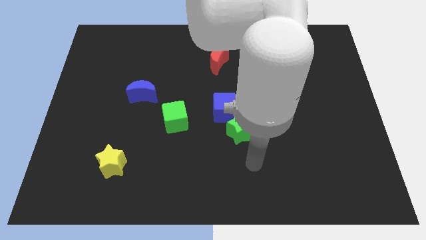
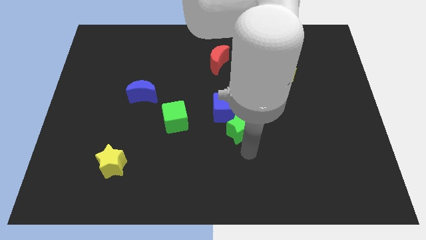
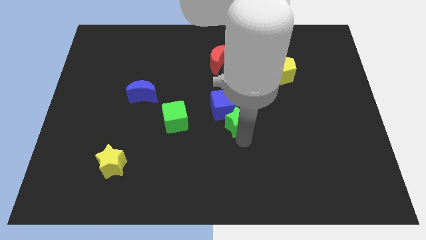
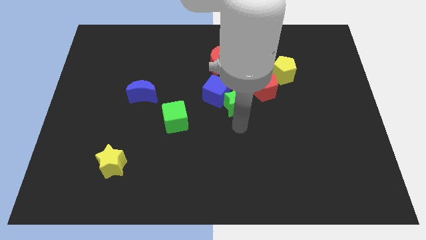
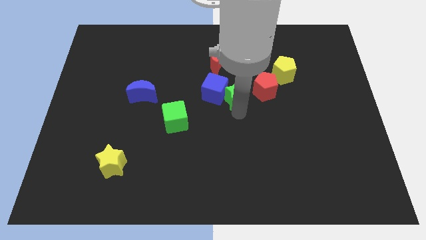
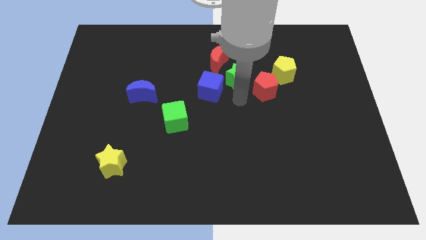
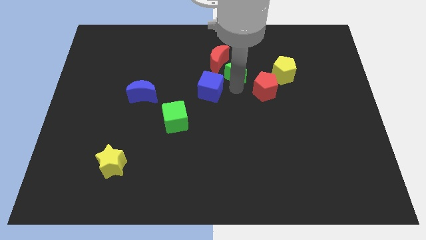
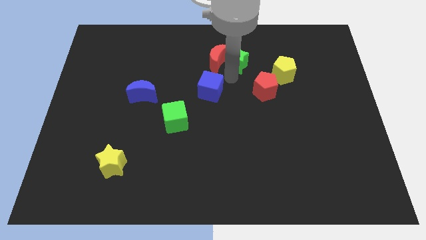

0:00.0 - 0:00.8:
move the blue cube away from the green star

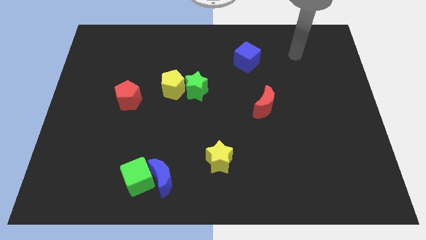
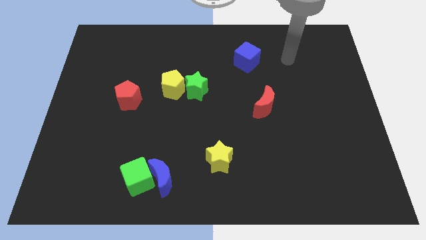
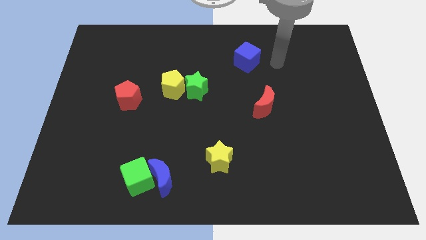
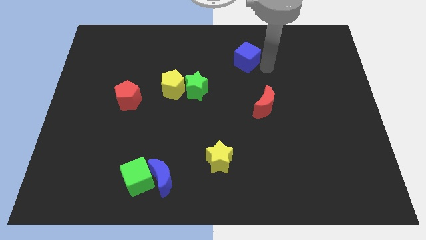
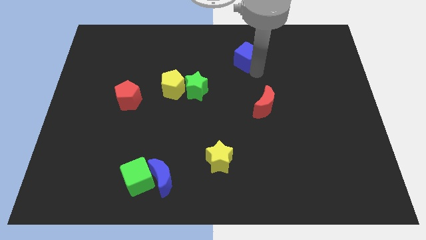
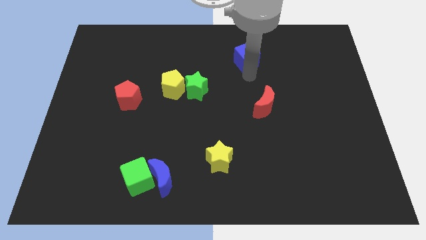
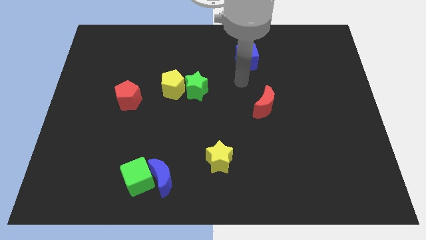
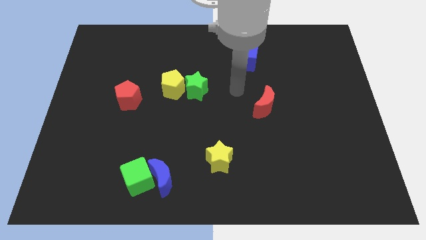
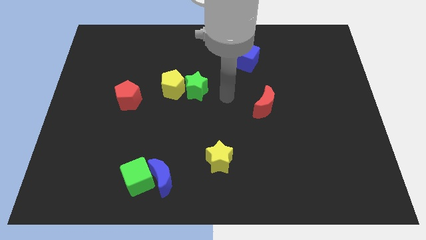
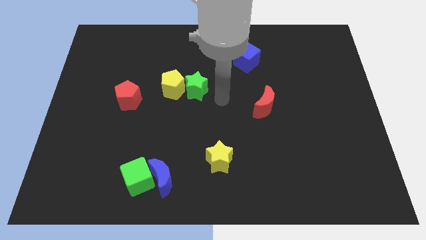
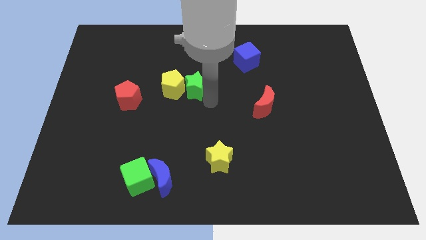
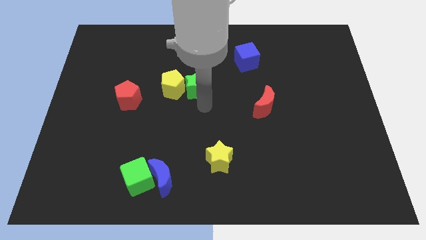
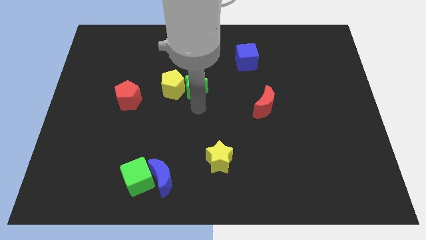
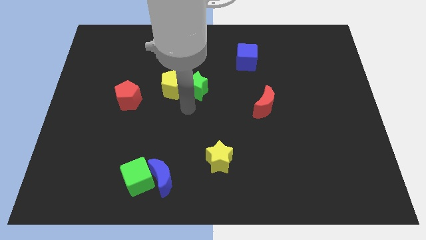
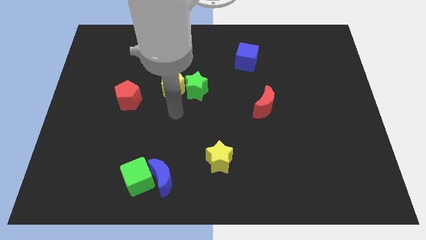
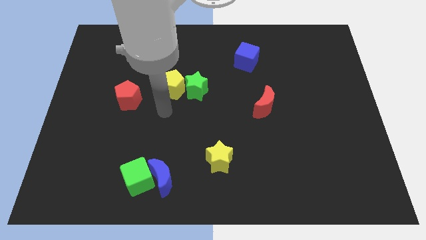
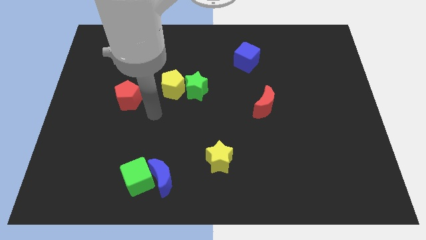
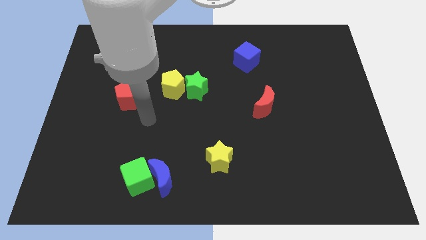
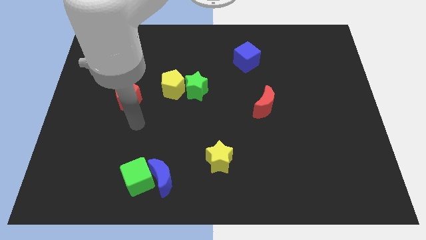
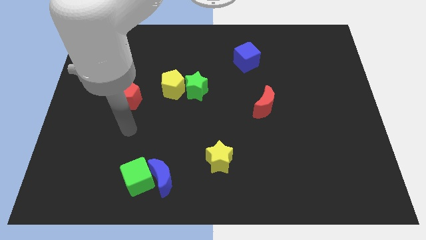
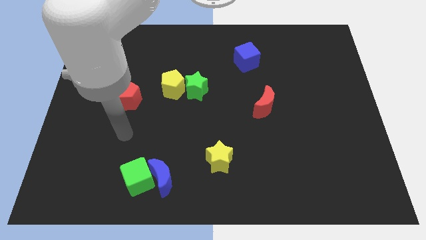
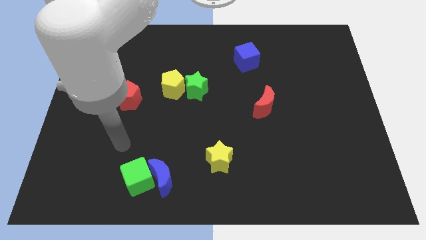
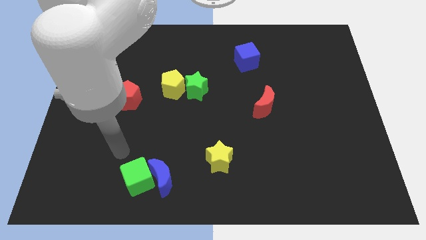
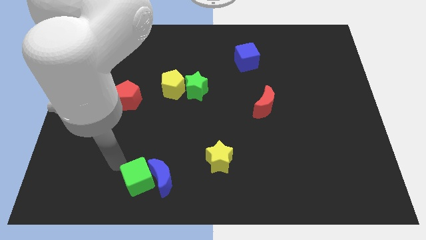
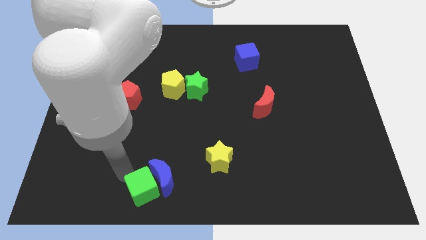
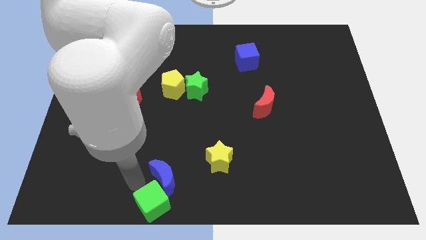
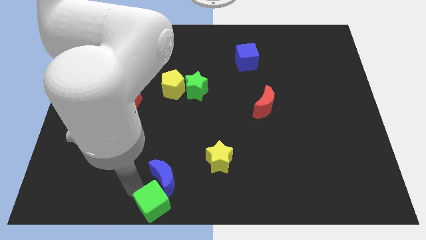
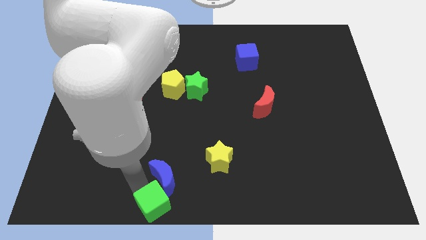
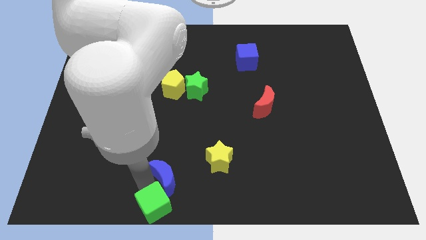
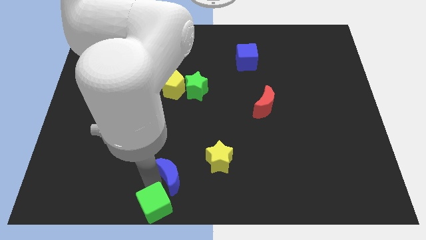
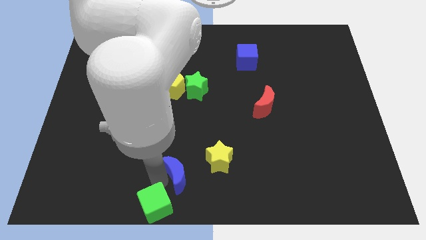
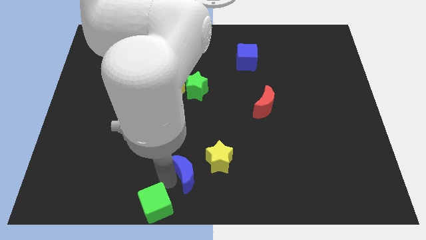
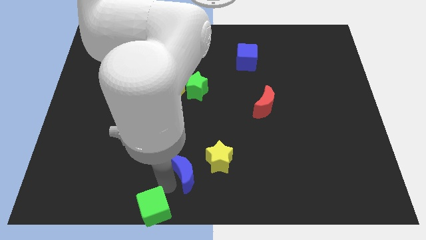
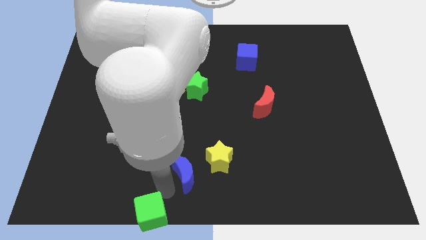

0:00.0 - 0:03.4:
move the blue moon away from the green cube

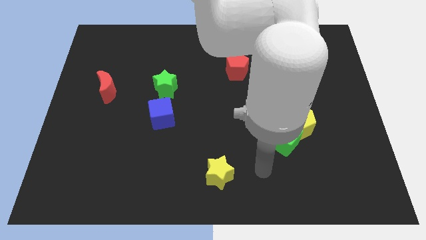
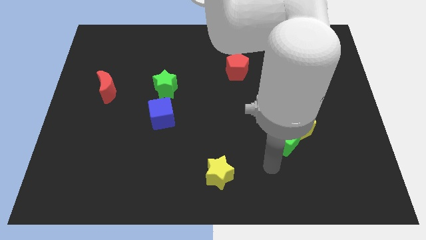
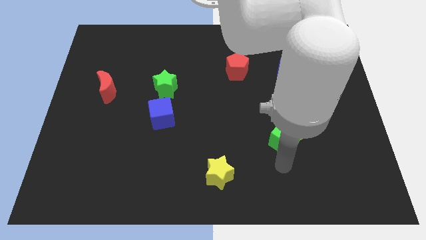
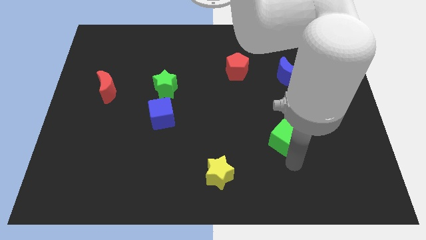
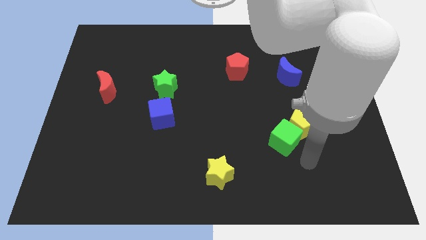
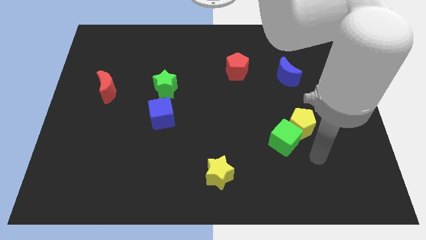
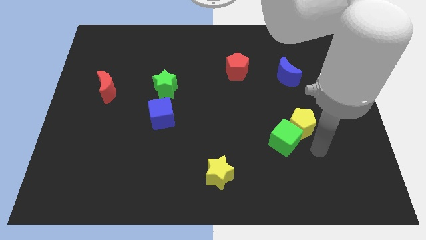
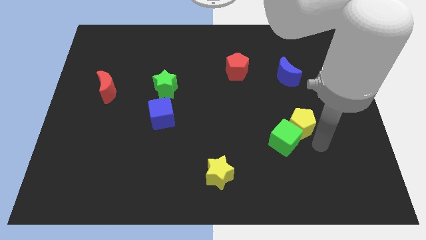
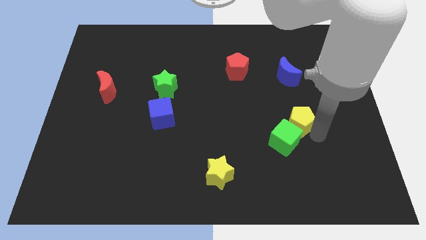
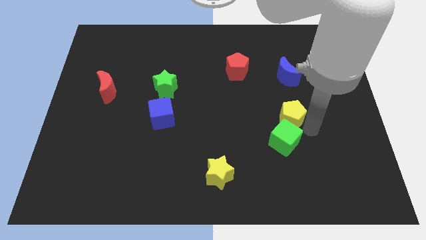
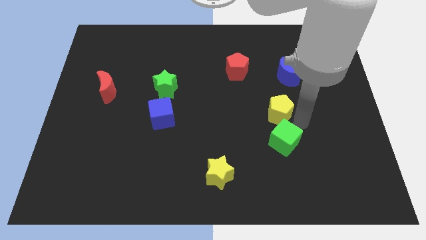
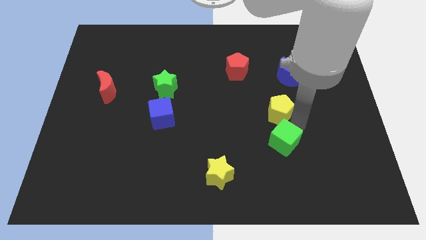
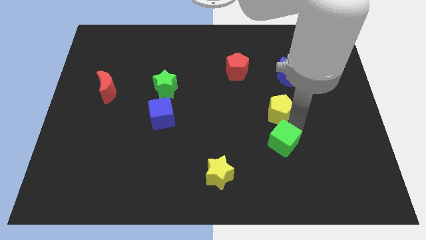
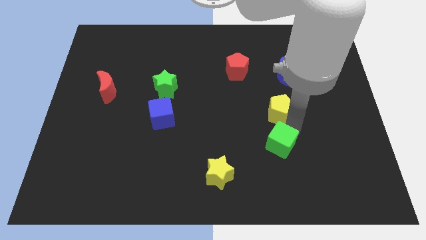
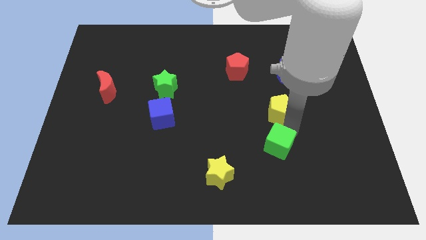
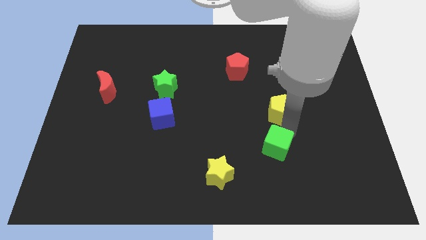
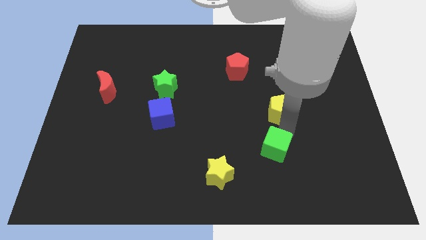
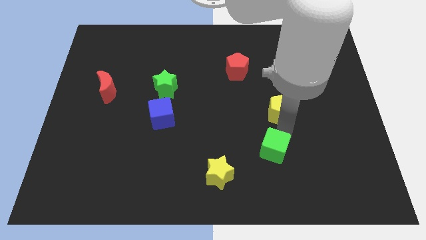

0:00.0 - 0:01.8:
separate the green cube from the yellow pentagon

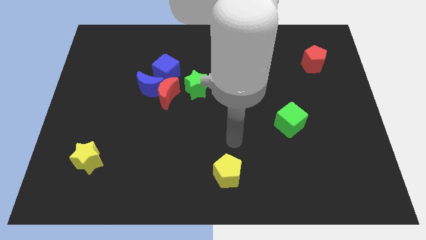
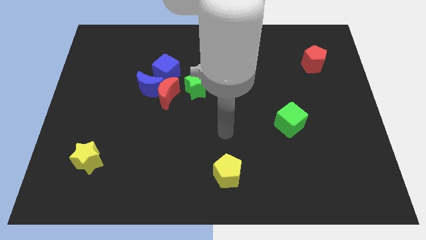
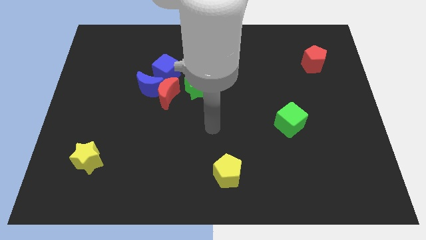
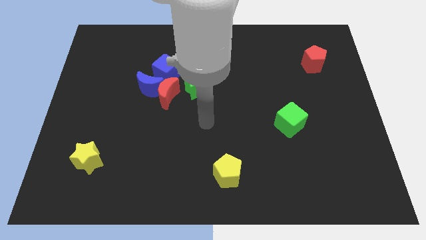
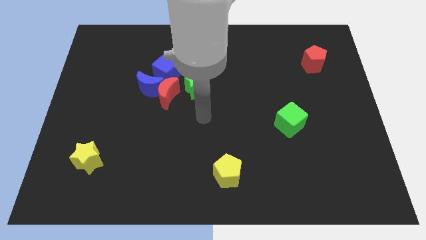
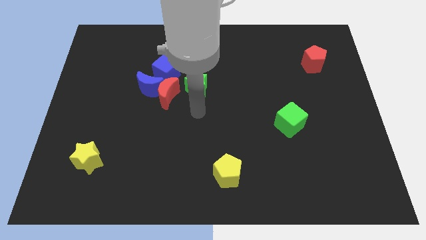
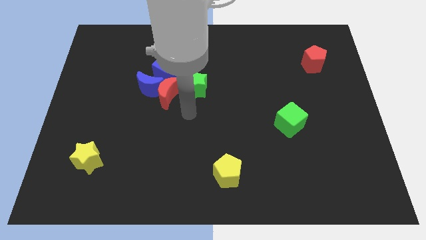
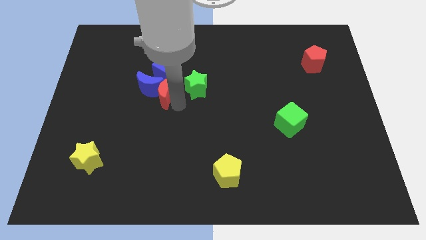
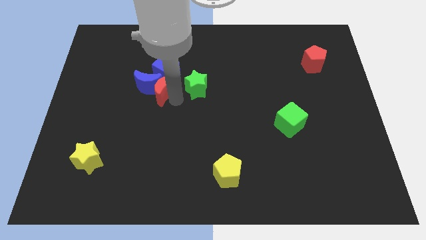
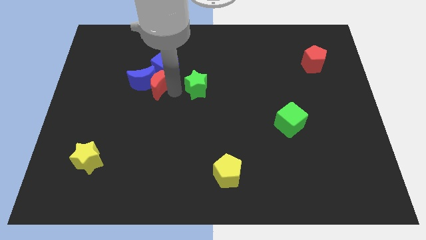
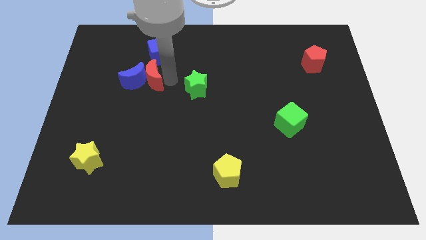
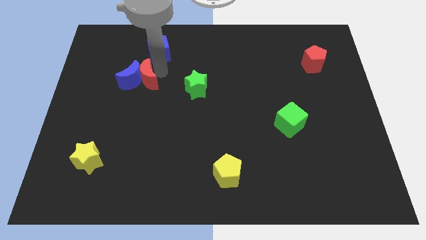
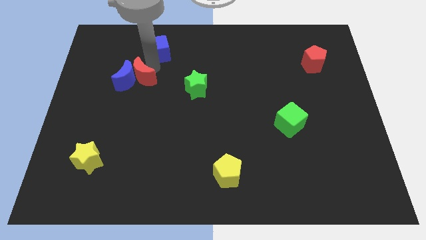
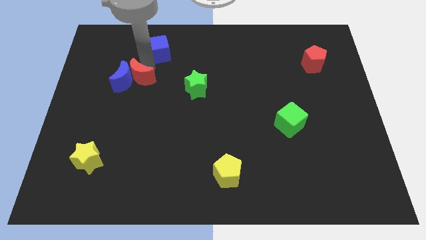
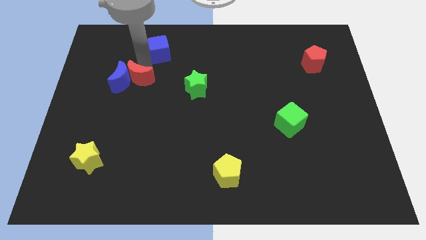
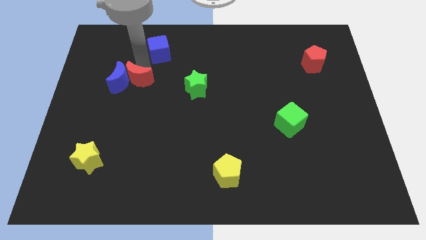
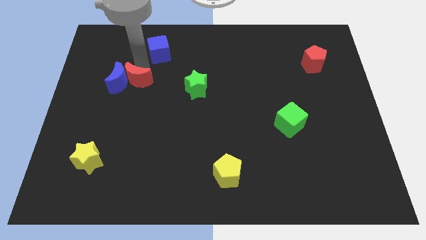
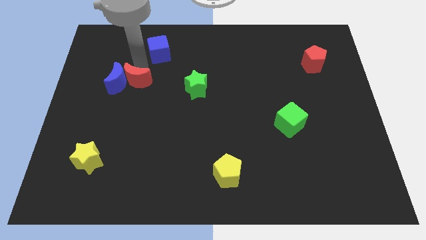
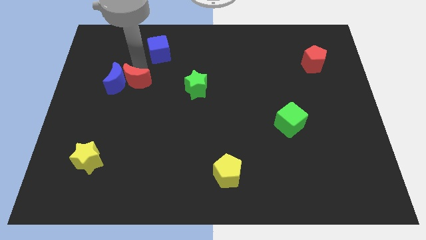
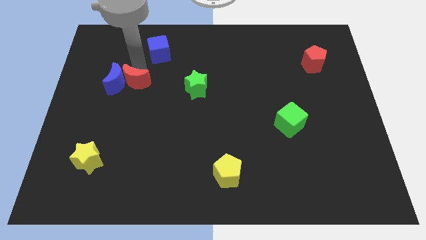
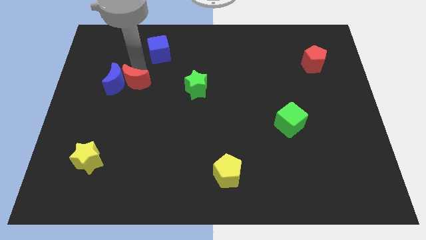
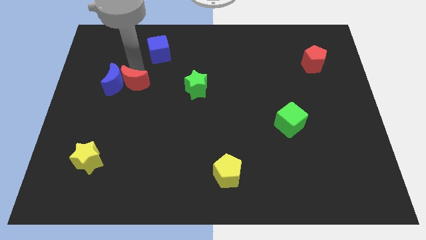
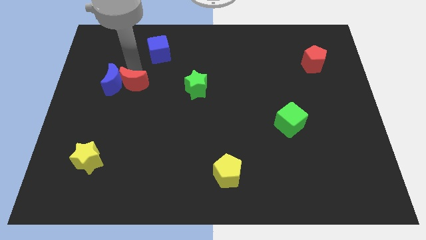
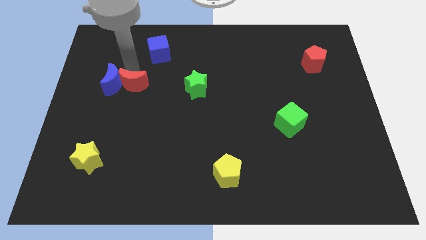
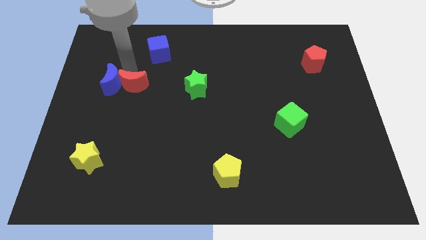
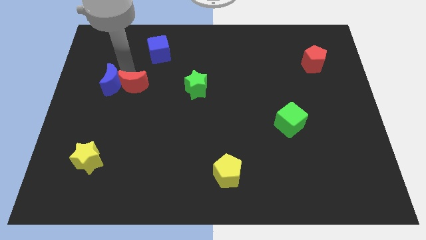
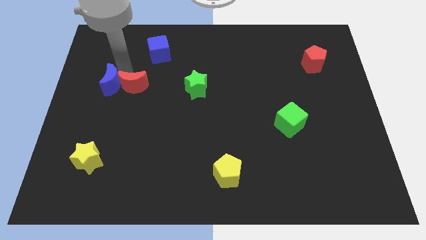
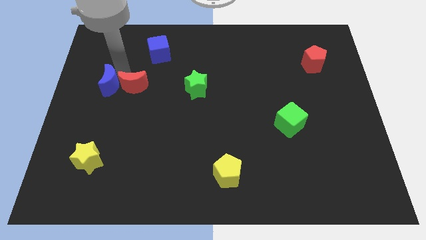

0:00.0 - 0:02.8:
separate the blue moon from the red moon and blue cube

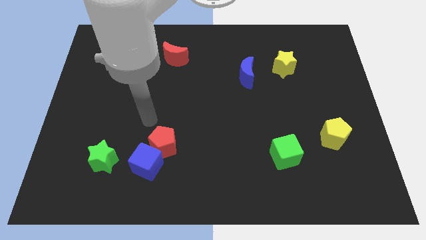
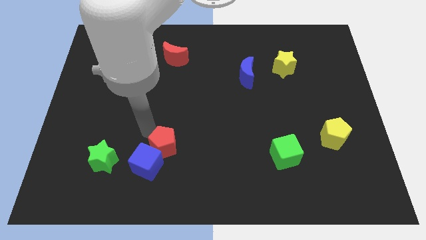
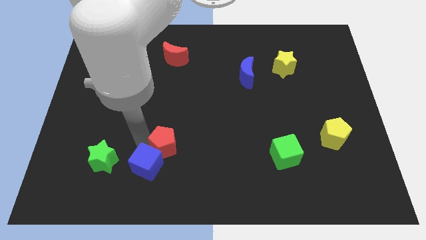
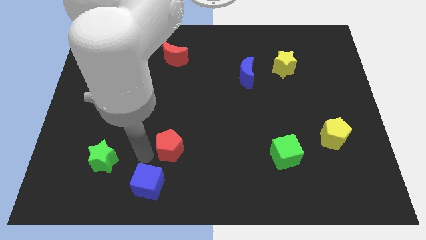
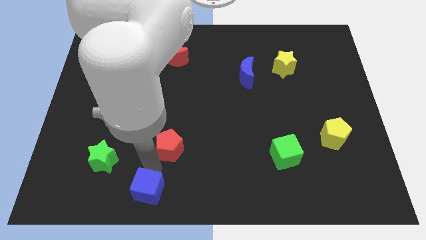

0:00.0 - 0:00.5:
pull the red pentagon apart from the blue cube
